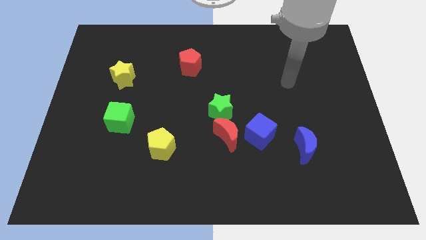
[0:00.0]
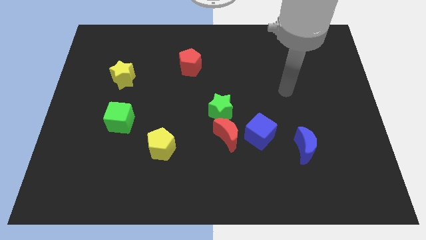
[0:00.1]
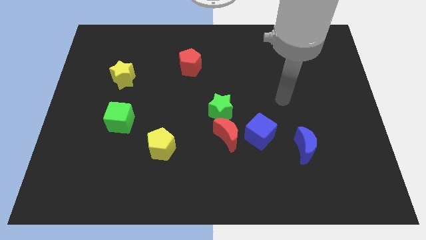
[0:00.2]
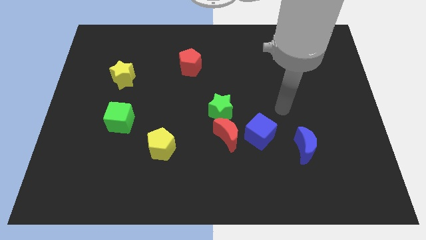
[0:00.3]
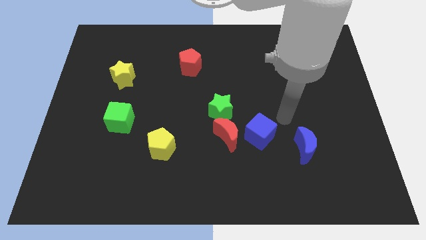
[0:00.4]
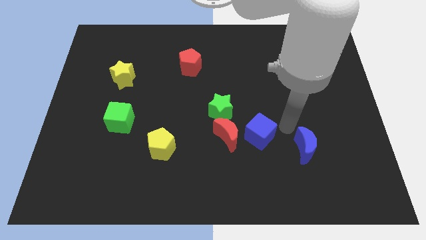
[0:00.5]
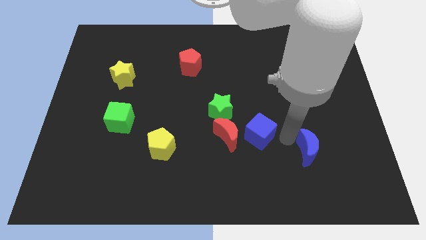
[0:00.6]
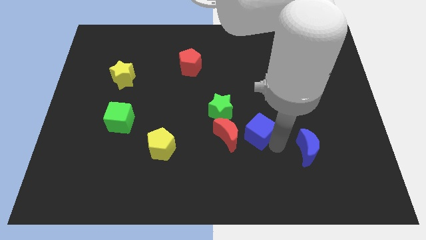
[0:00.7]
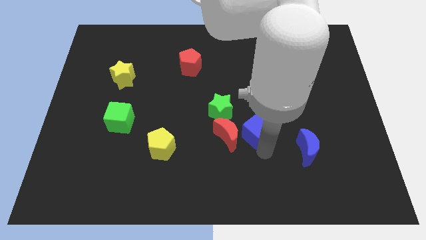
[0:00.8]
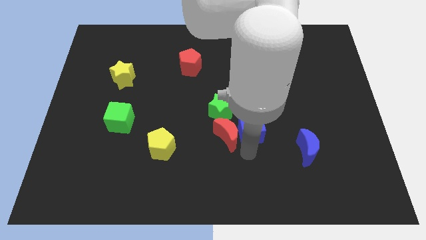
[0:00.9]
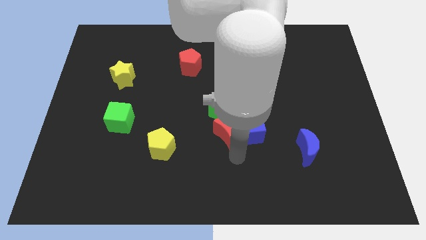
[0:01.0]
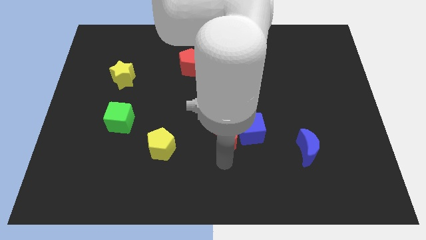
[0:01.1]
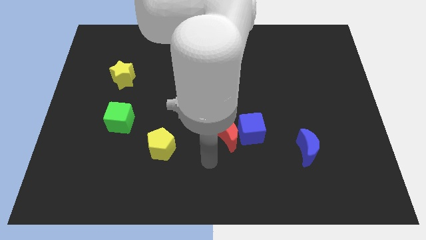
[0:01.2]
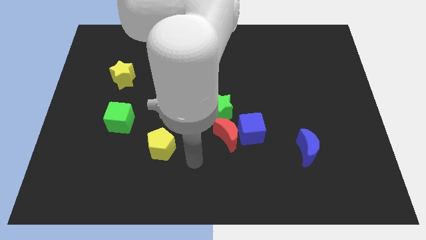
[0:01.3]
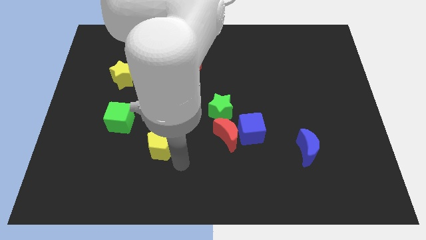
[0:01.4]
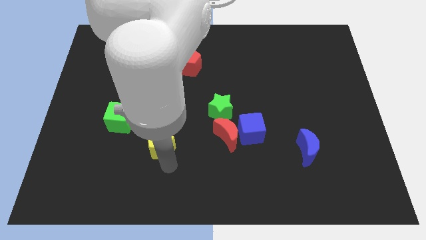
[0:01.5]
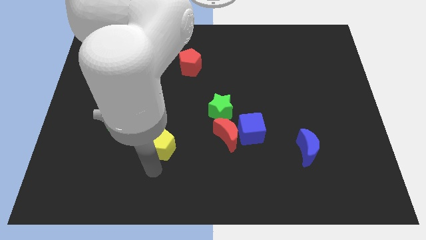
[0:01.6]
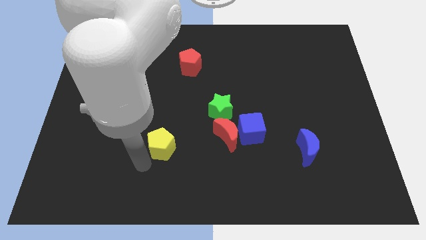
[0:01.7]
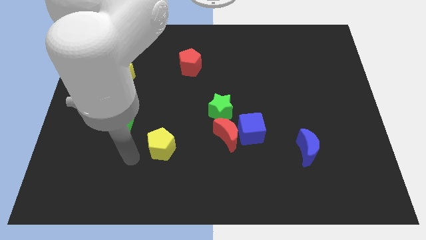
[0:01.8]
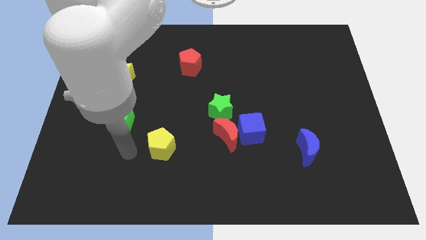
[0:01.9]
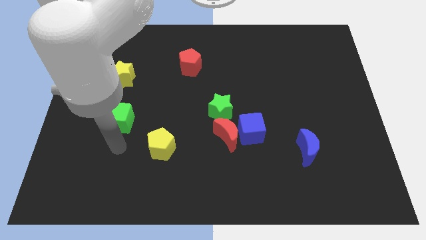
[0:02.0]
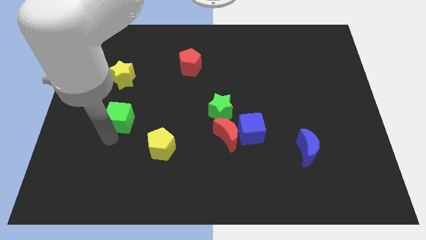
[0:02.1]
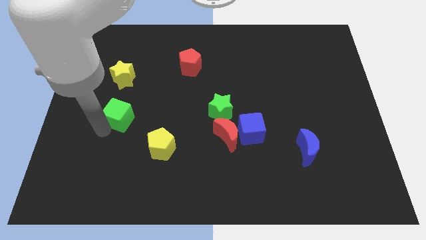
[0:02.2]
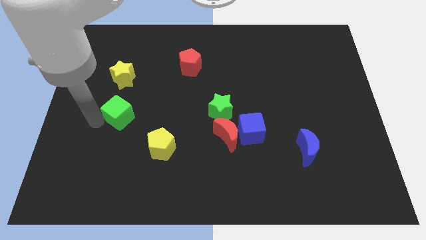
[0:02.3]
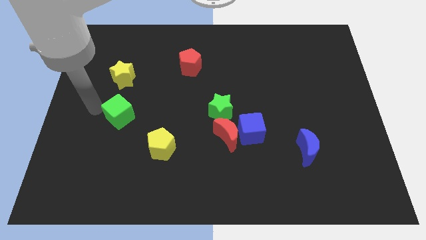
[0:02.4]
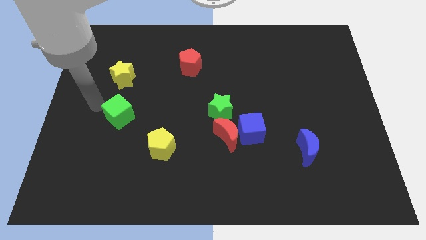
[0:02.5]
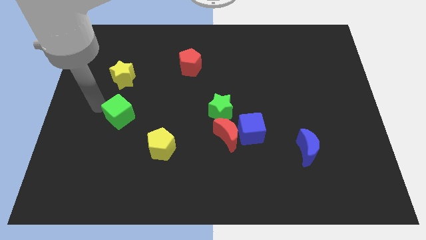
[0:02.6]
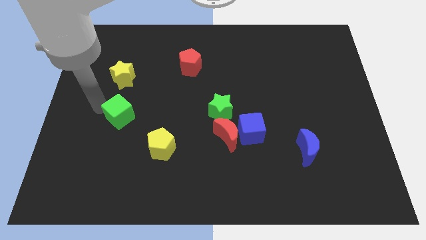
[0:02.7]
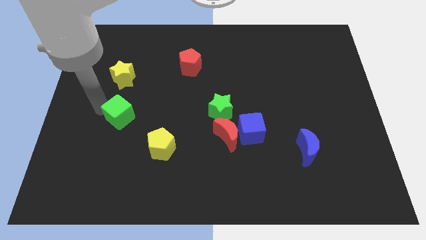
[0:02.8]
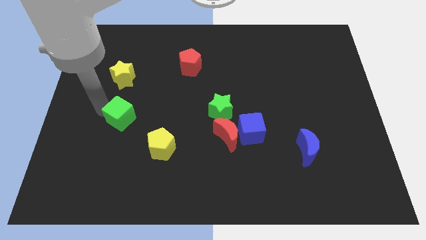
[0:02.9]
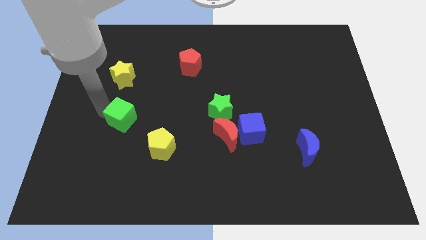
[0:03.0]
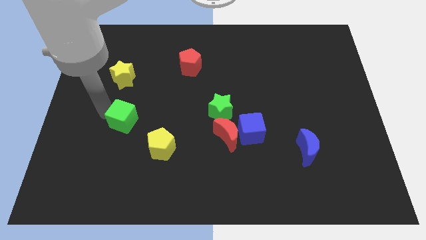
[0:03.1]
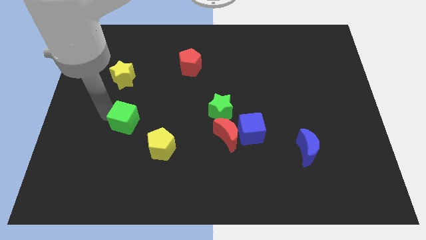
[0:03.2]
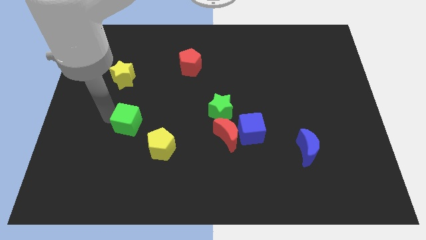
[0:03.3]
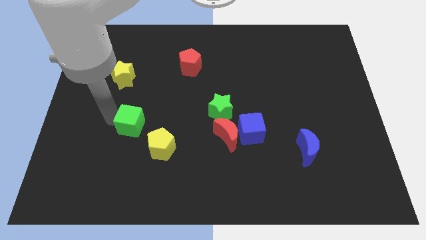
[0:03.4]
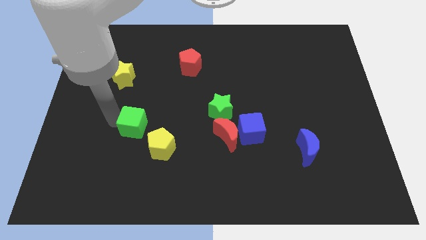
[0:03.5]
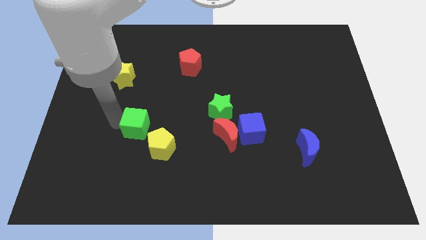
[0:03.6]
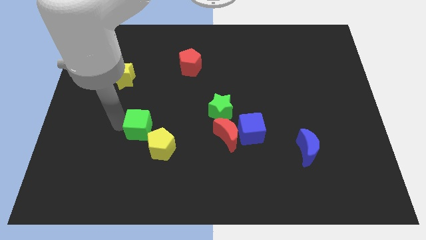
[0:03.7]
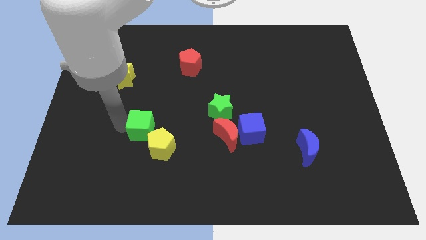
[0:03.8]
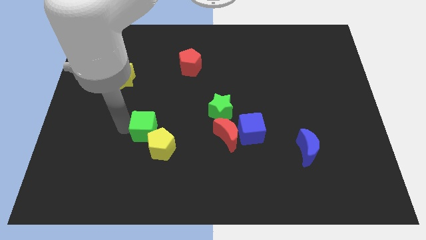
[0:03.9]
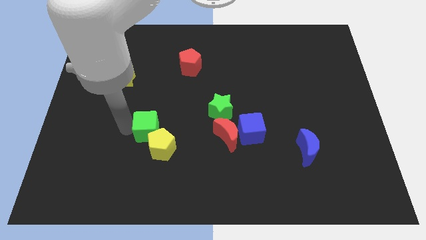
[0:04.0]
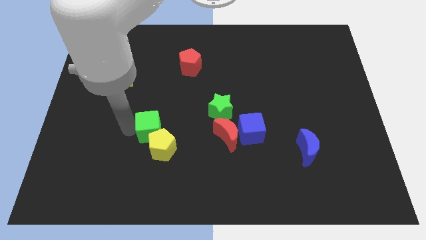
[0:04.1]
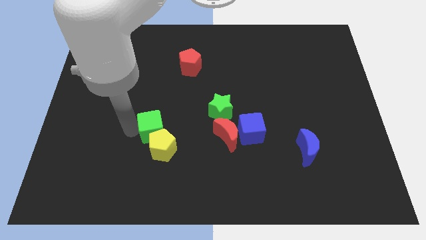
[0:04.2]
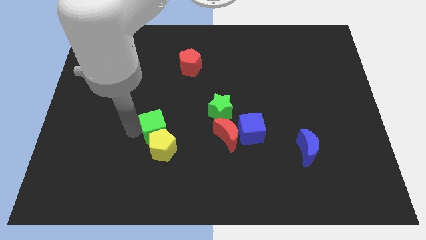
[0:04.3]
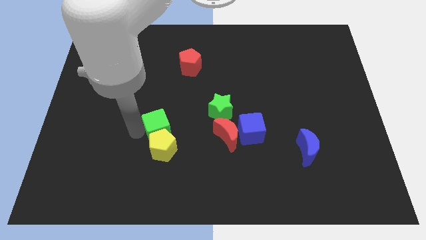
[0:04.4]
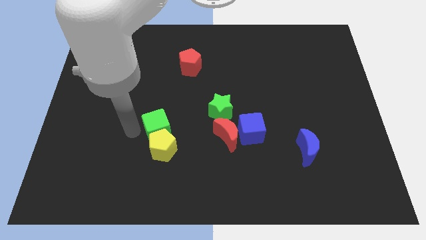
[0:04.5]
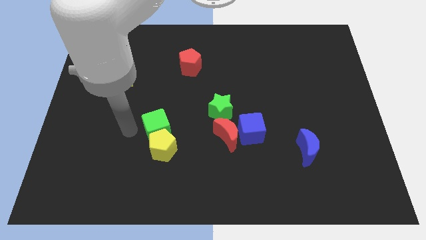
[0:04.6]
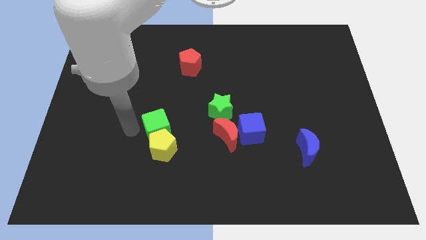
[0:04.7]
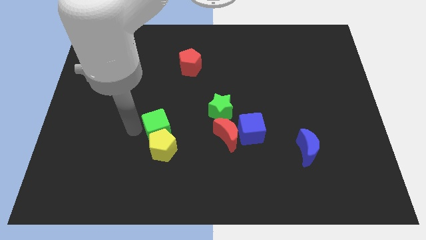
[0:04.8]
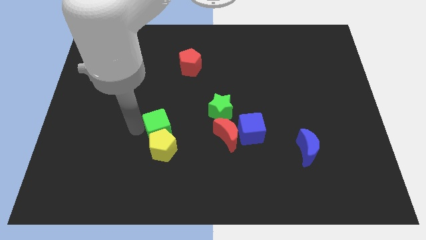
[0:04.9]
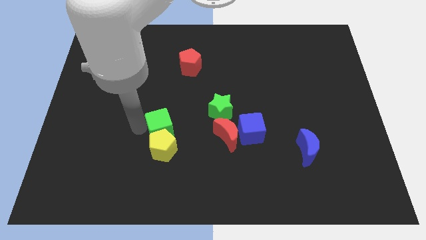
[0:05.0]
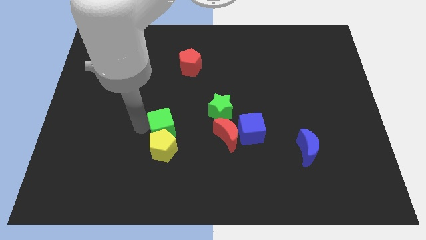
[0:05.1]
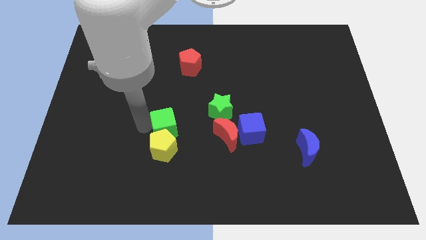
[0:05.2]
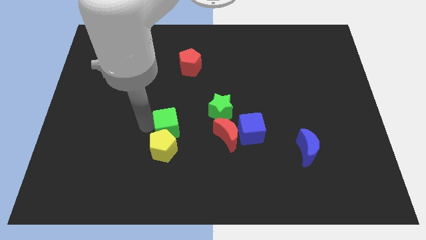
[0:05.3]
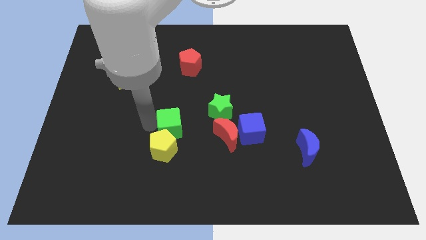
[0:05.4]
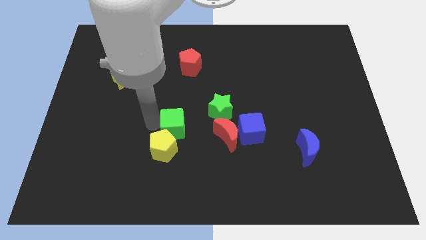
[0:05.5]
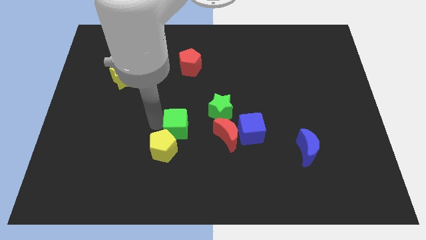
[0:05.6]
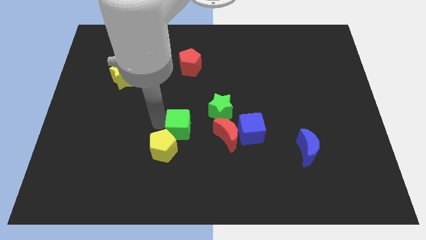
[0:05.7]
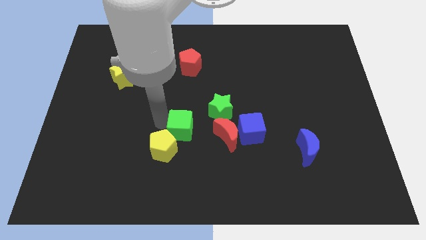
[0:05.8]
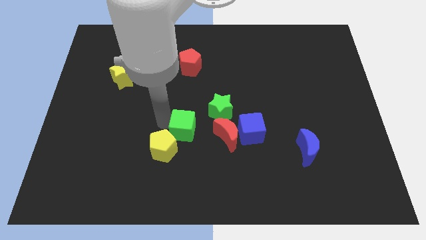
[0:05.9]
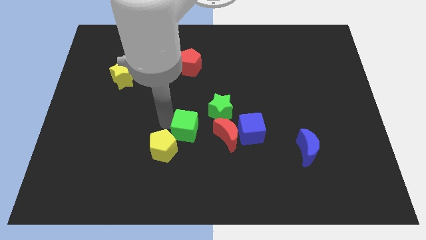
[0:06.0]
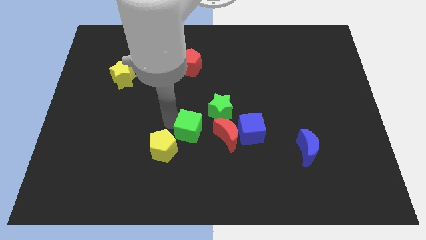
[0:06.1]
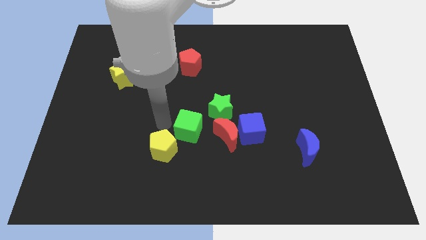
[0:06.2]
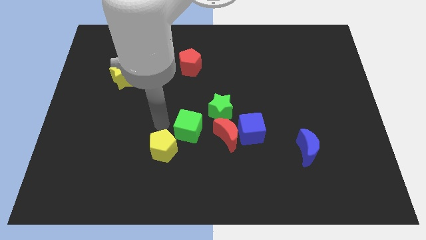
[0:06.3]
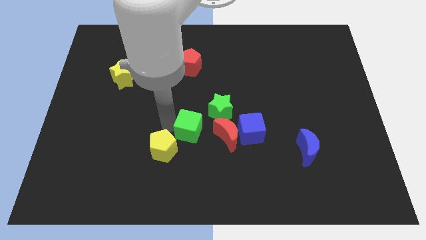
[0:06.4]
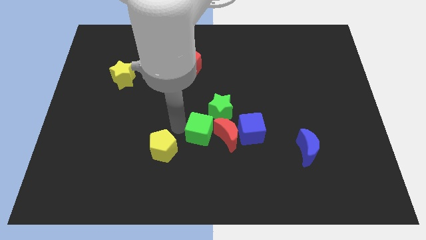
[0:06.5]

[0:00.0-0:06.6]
put the green cube to the red moon
